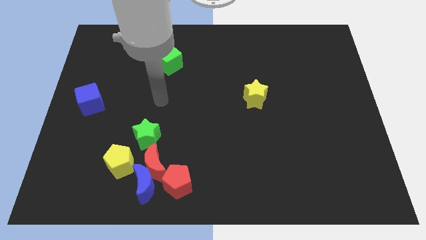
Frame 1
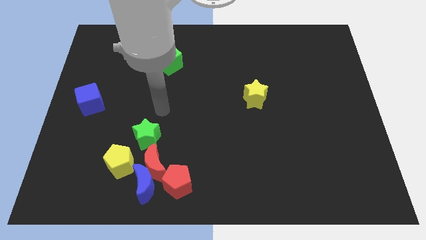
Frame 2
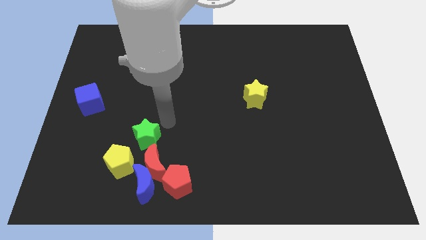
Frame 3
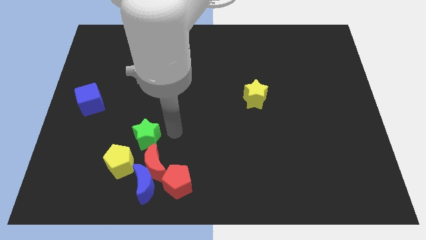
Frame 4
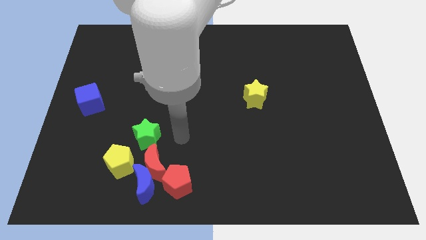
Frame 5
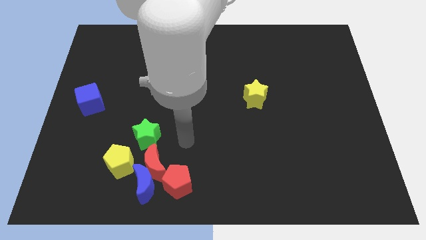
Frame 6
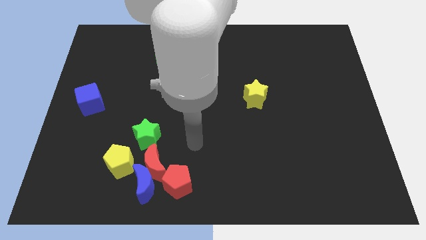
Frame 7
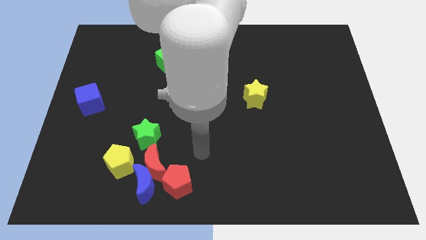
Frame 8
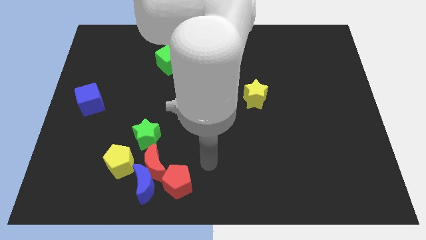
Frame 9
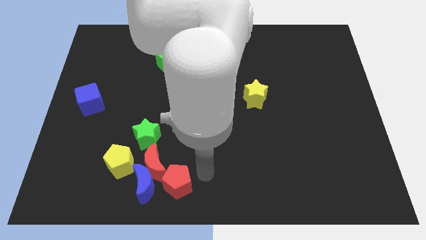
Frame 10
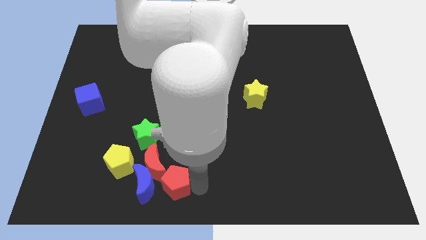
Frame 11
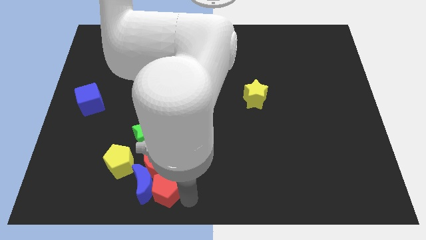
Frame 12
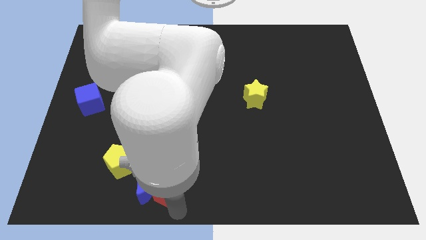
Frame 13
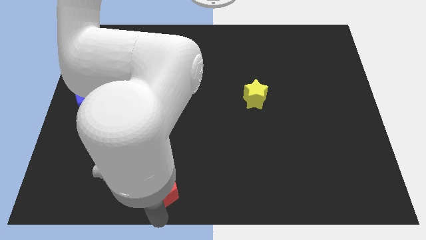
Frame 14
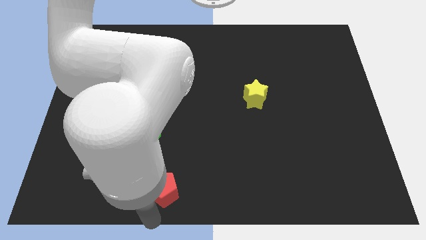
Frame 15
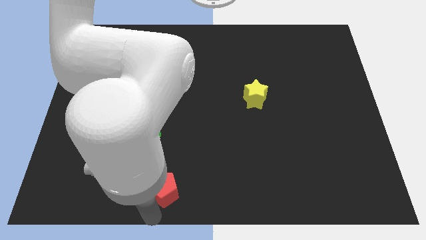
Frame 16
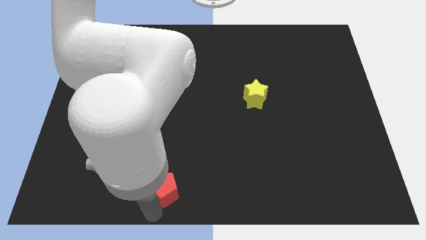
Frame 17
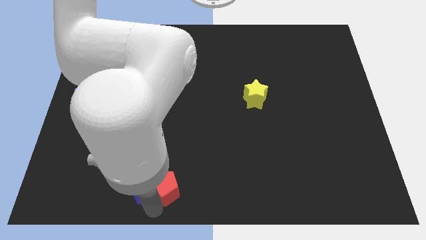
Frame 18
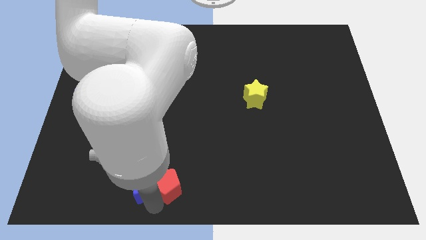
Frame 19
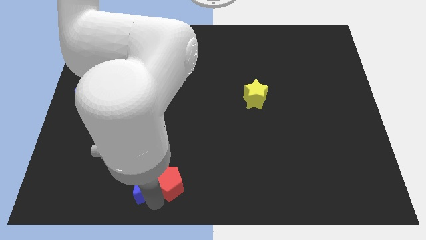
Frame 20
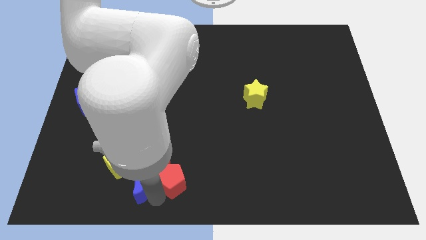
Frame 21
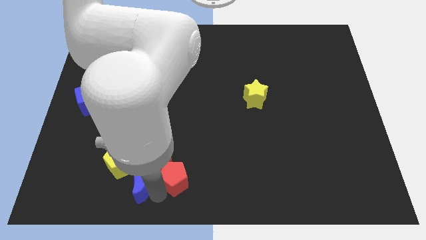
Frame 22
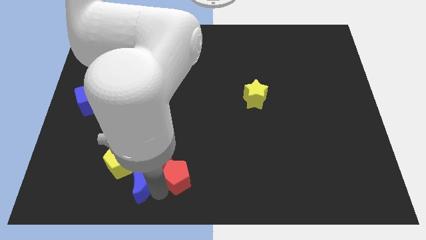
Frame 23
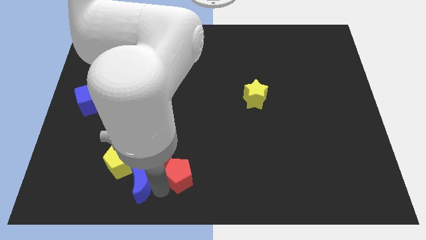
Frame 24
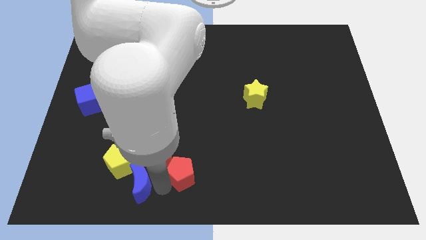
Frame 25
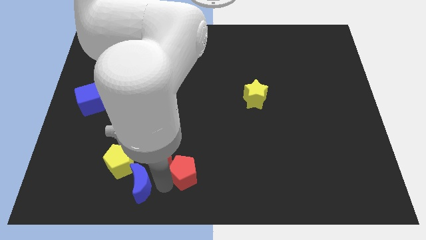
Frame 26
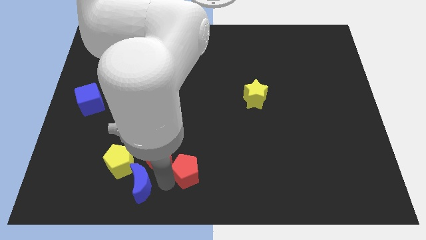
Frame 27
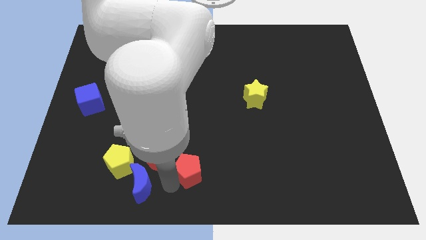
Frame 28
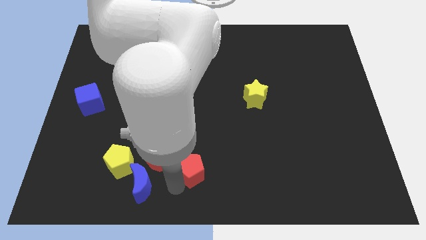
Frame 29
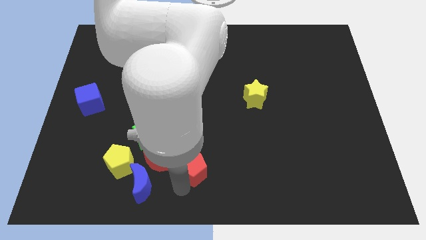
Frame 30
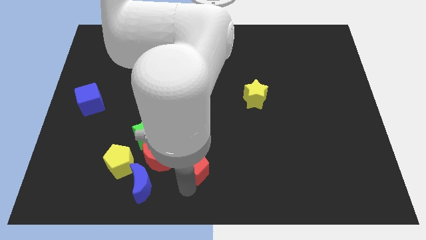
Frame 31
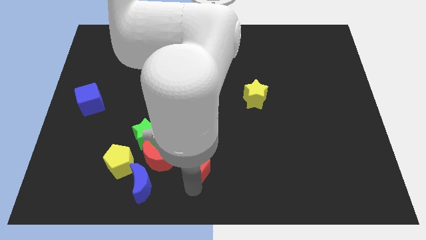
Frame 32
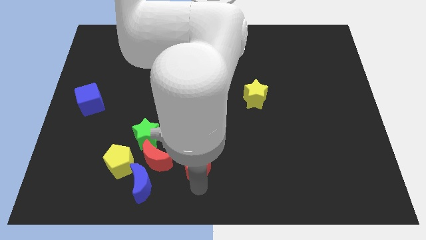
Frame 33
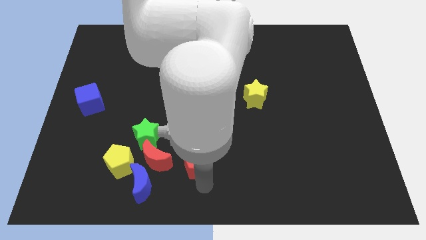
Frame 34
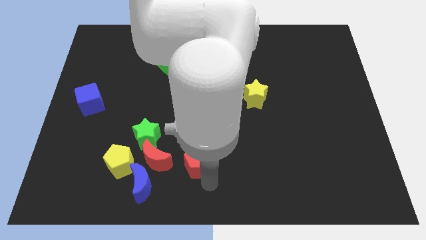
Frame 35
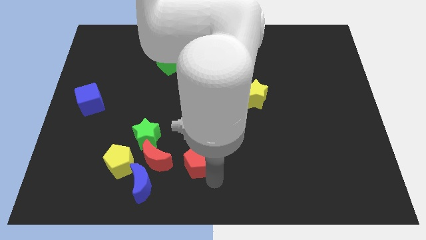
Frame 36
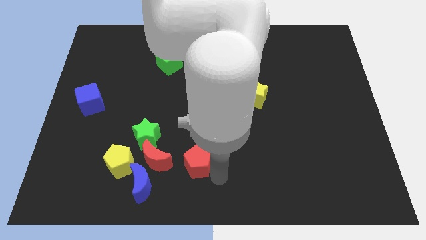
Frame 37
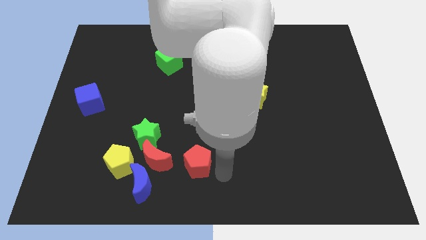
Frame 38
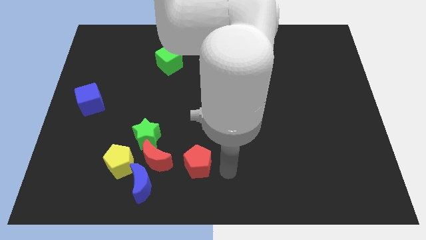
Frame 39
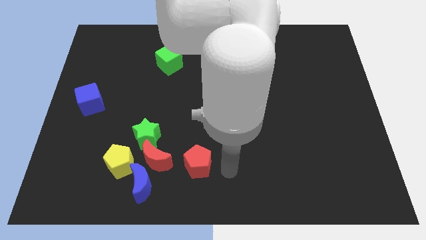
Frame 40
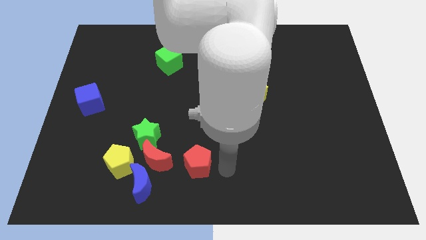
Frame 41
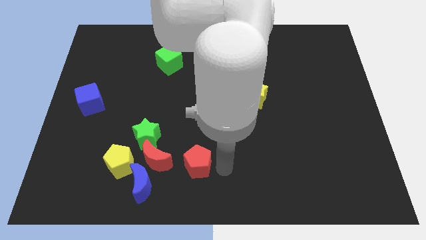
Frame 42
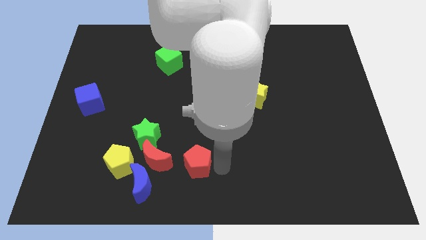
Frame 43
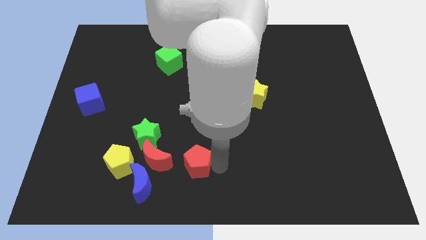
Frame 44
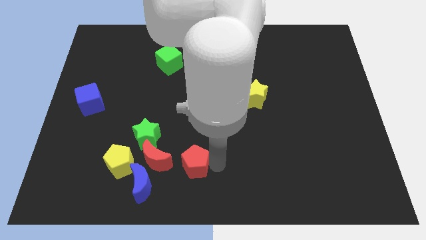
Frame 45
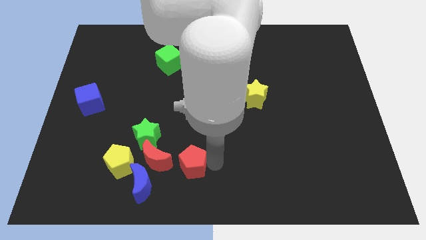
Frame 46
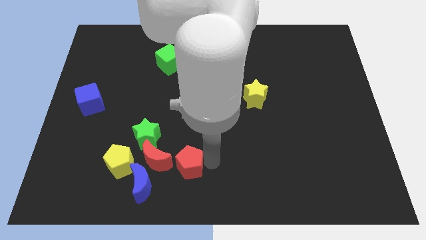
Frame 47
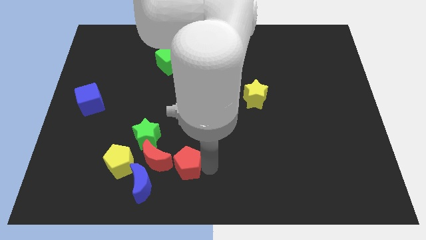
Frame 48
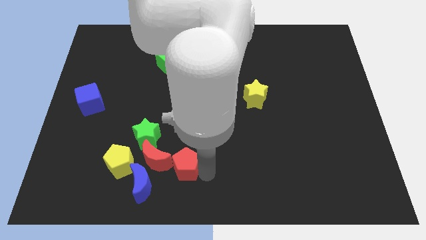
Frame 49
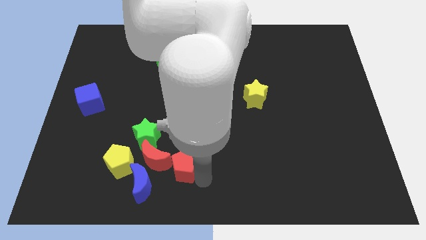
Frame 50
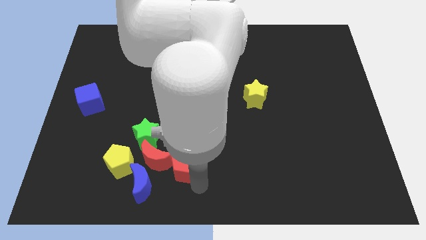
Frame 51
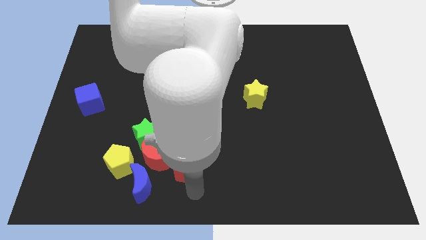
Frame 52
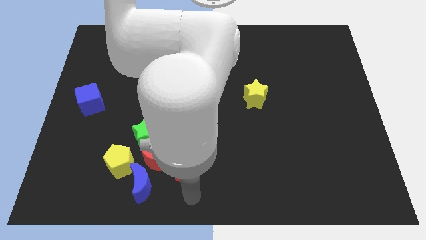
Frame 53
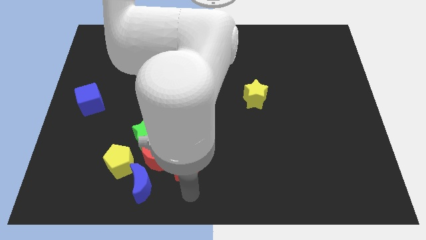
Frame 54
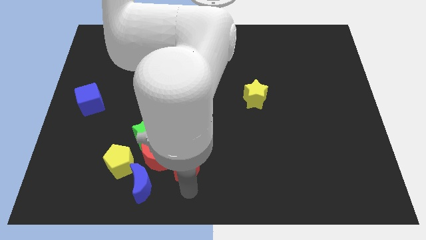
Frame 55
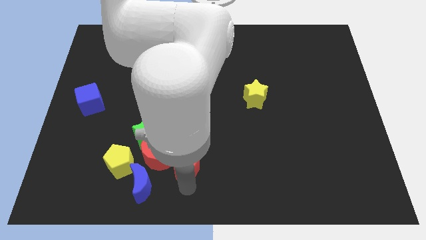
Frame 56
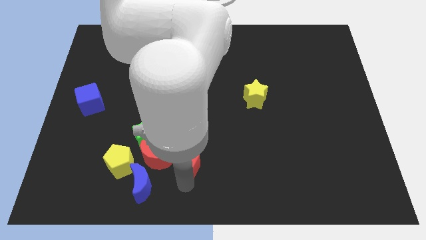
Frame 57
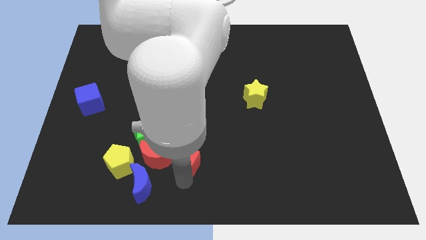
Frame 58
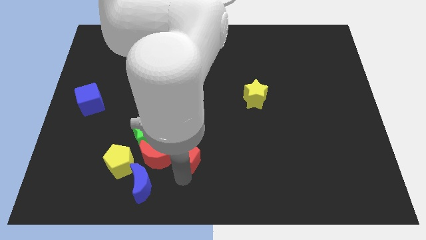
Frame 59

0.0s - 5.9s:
move the red pentagon to the top right of the red moon

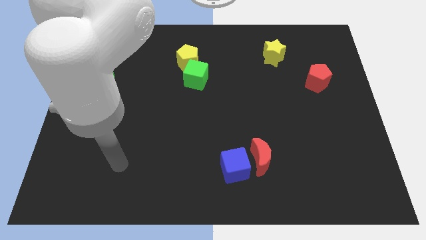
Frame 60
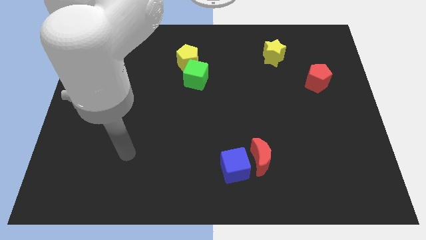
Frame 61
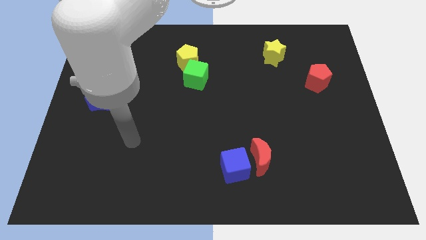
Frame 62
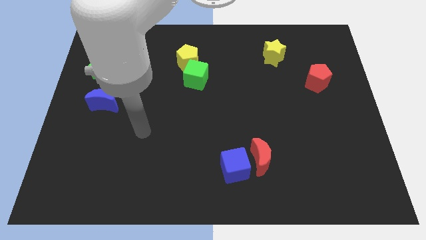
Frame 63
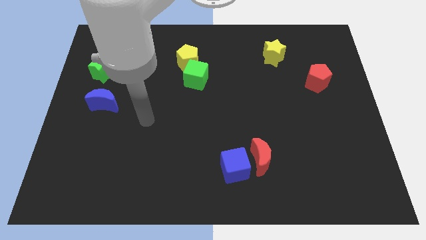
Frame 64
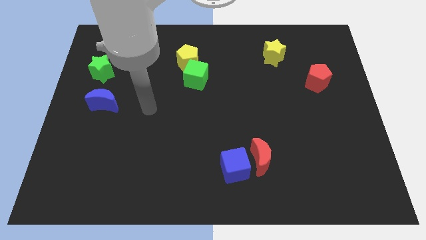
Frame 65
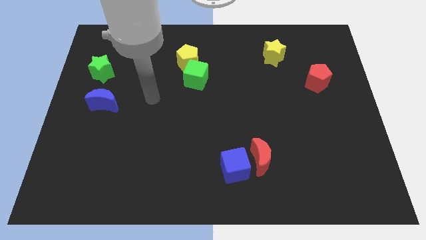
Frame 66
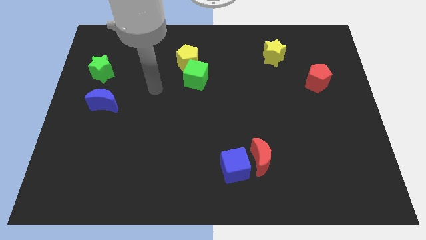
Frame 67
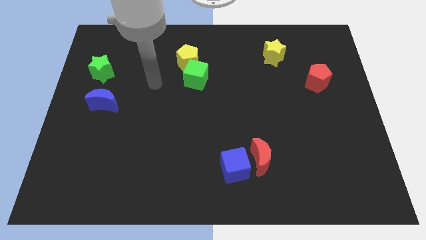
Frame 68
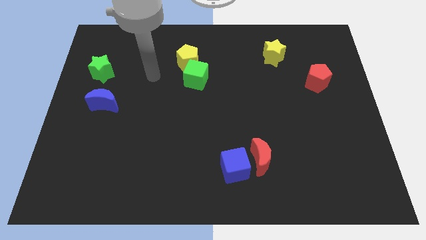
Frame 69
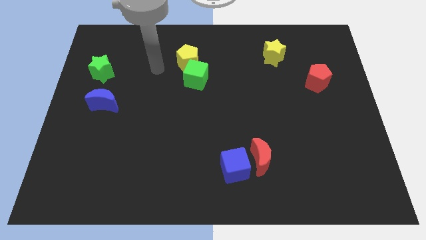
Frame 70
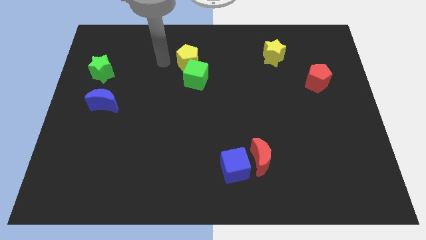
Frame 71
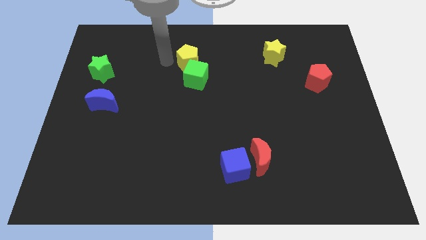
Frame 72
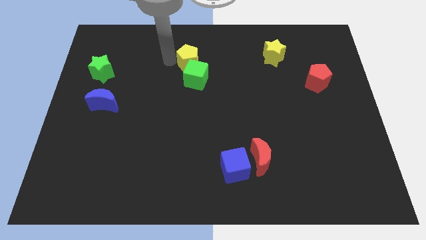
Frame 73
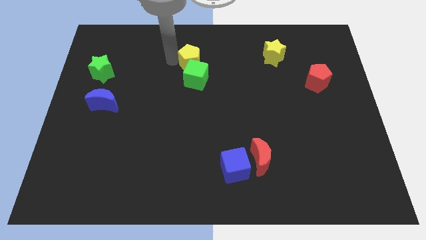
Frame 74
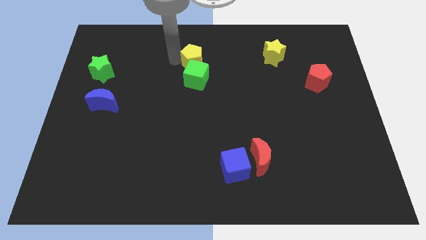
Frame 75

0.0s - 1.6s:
put the yellow pentagon to the top right of the green cube
